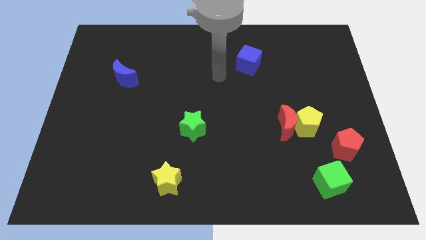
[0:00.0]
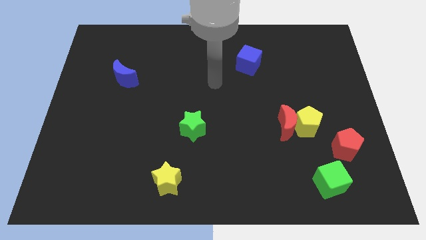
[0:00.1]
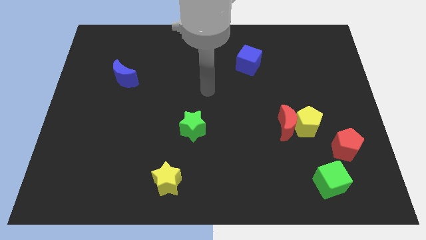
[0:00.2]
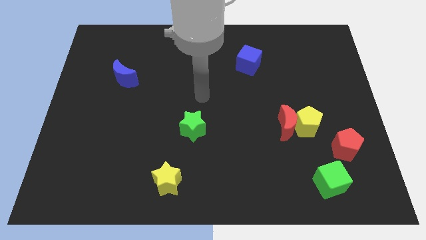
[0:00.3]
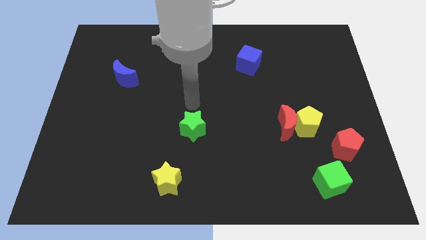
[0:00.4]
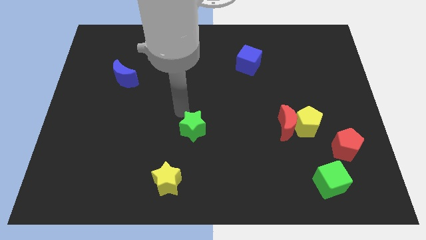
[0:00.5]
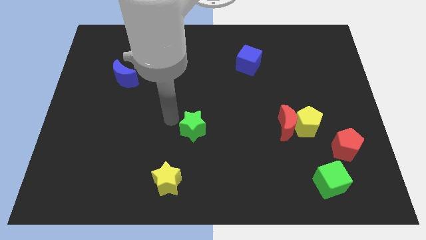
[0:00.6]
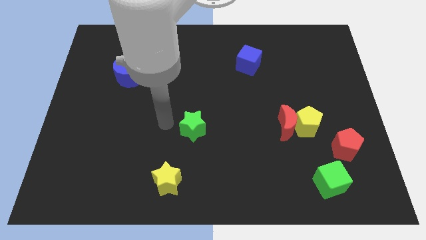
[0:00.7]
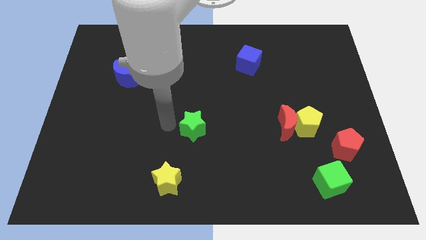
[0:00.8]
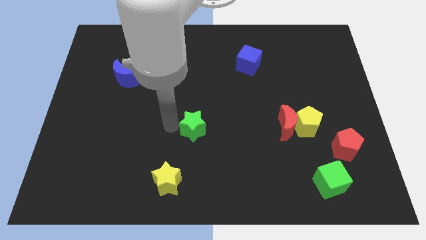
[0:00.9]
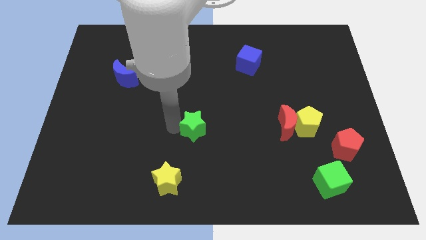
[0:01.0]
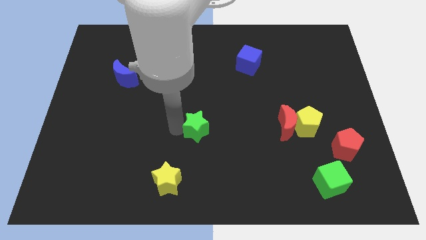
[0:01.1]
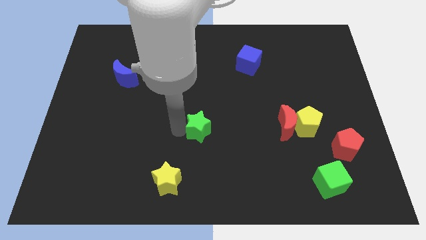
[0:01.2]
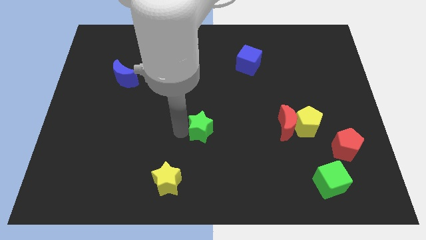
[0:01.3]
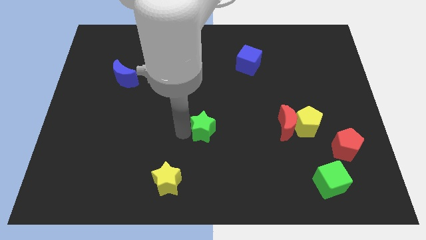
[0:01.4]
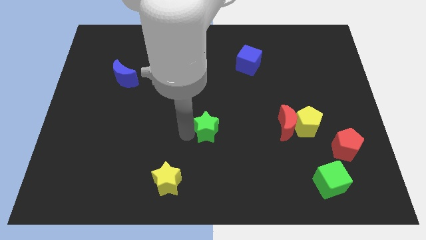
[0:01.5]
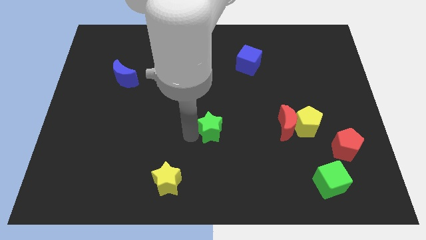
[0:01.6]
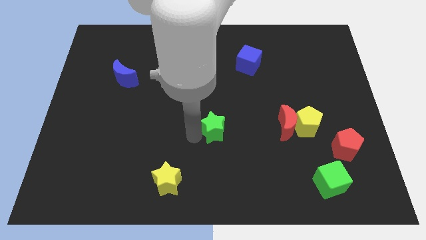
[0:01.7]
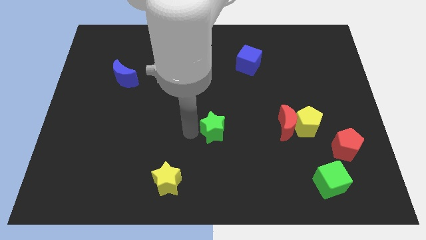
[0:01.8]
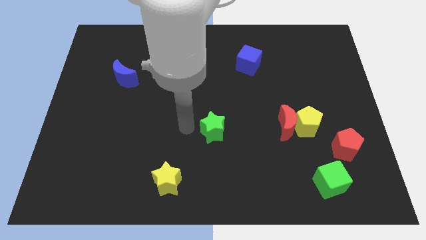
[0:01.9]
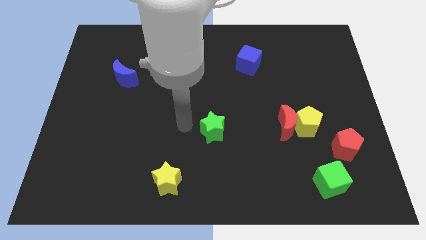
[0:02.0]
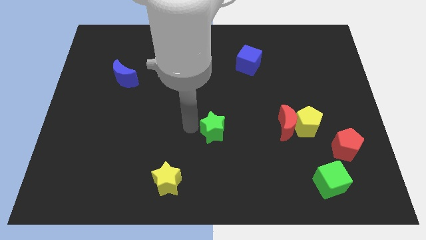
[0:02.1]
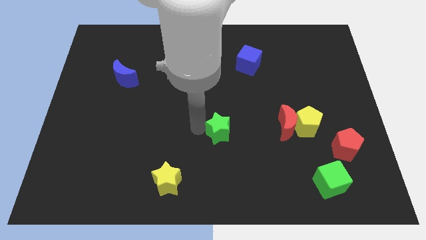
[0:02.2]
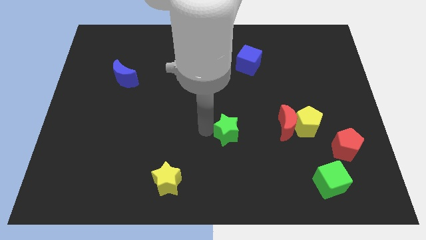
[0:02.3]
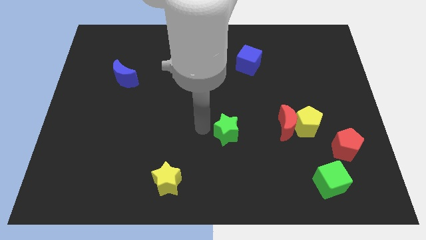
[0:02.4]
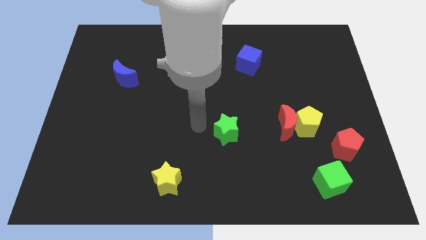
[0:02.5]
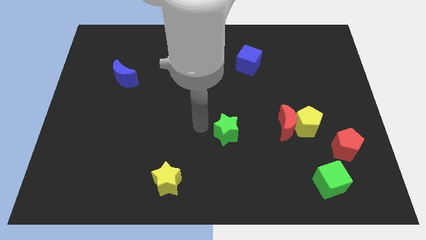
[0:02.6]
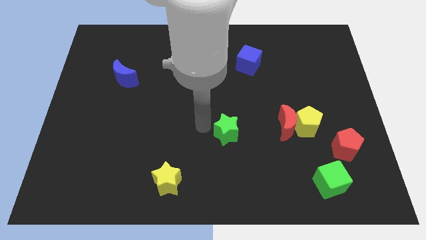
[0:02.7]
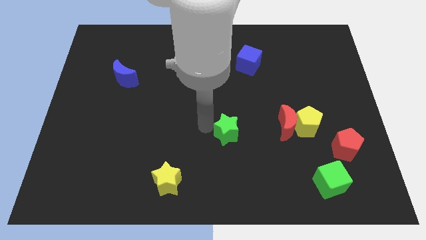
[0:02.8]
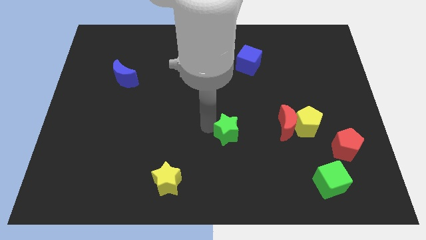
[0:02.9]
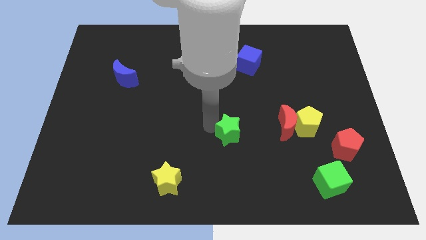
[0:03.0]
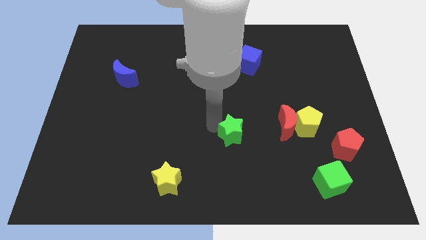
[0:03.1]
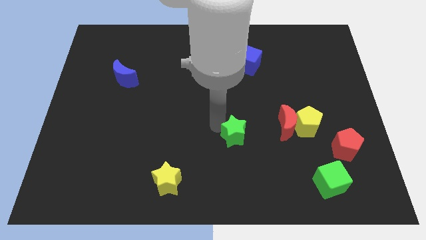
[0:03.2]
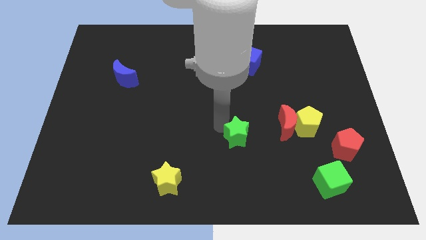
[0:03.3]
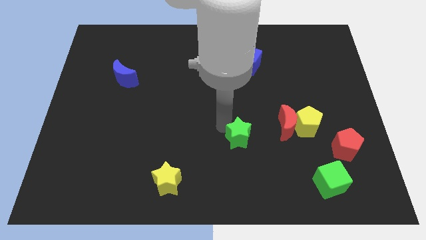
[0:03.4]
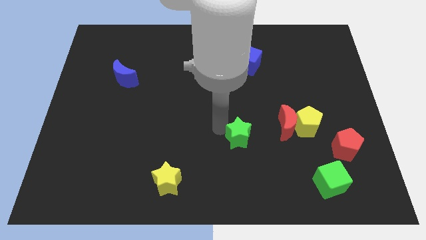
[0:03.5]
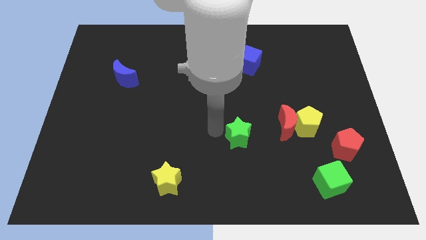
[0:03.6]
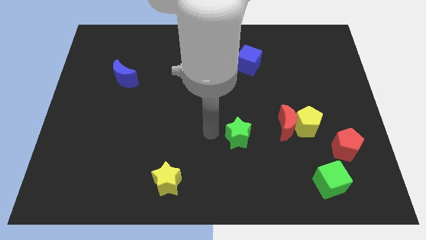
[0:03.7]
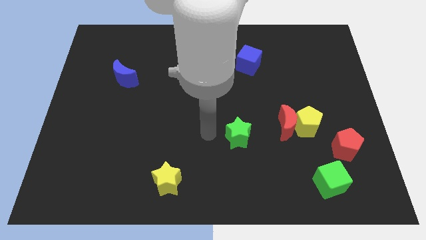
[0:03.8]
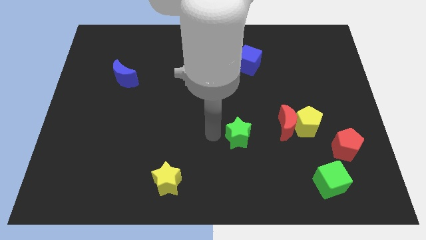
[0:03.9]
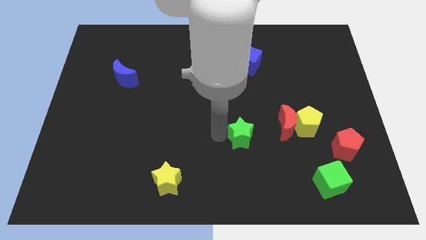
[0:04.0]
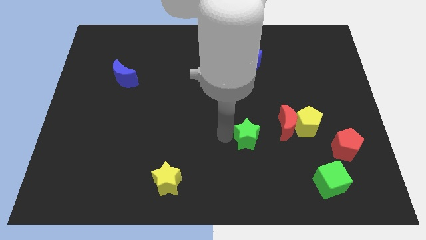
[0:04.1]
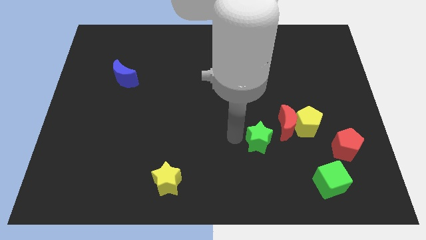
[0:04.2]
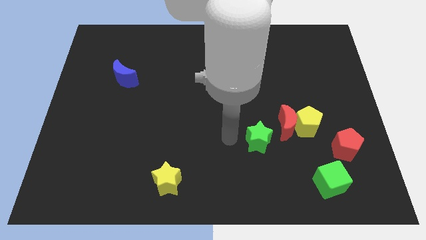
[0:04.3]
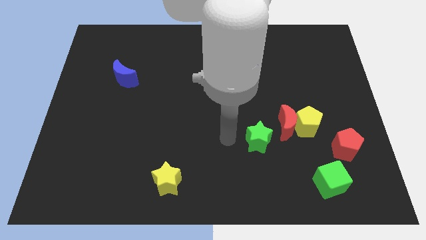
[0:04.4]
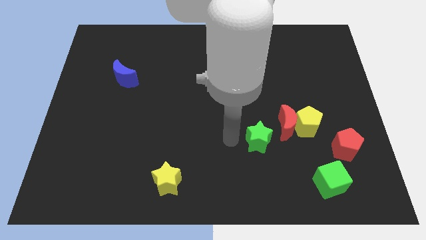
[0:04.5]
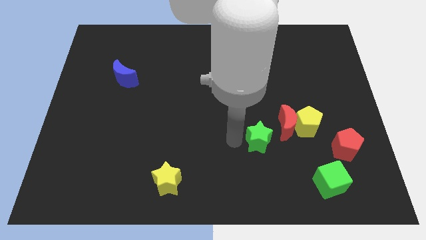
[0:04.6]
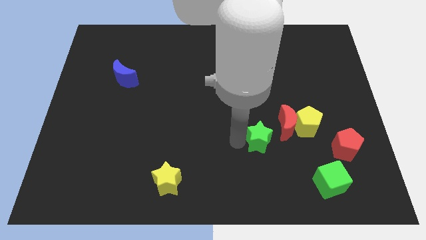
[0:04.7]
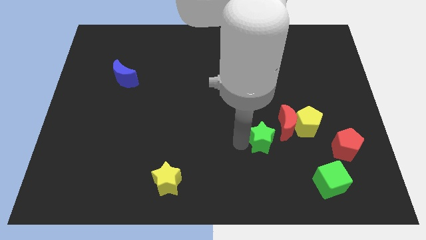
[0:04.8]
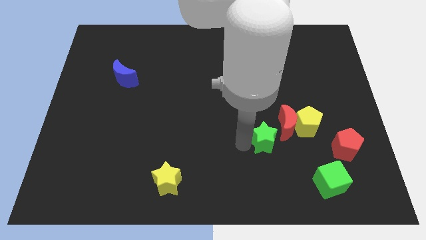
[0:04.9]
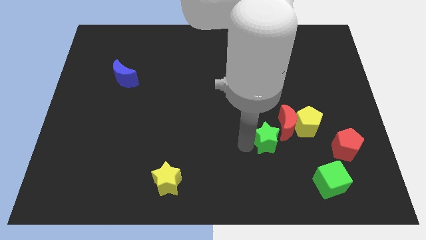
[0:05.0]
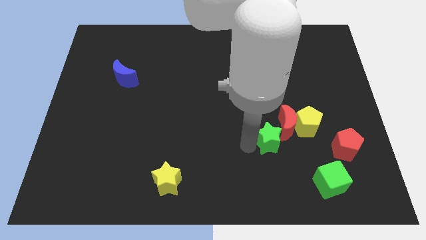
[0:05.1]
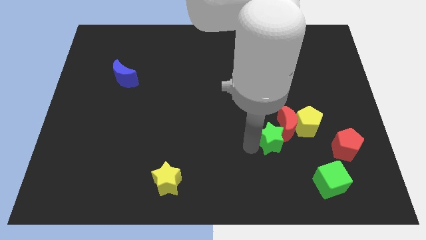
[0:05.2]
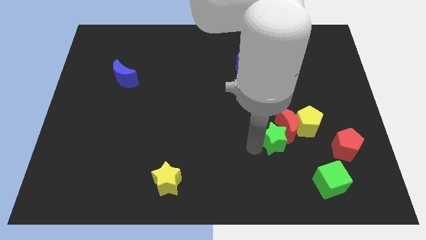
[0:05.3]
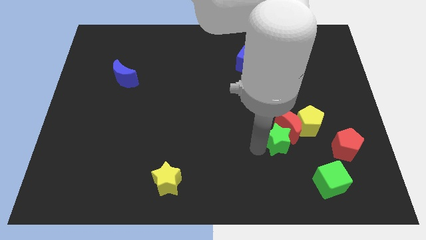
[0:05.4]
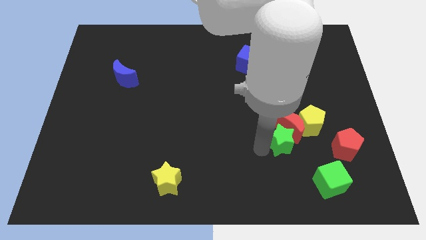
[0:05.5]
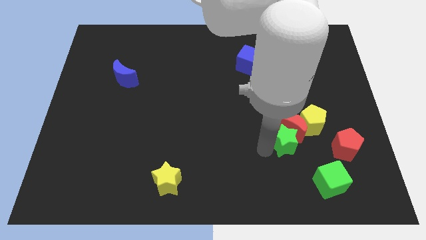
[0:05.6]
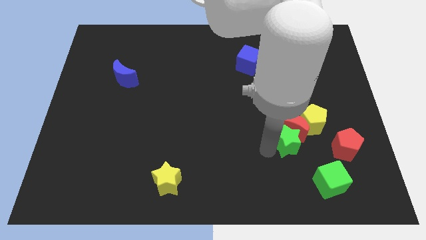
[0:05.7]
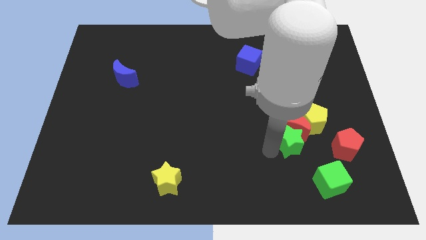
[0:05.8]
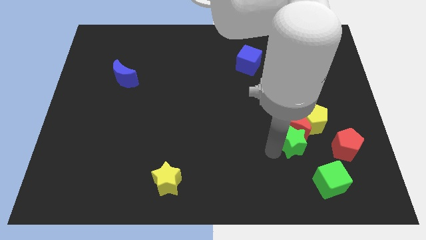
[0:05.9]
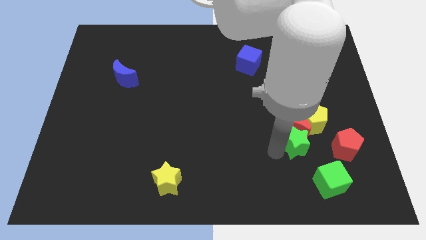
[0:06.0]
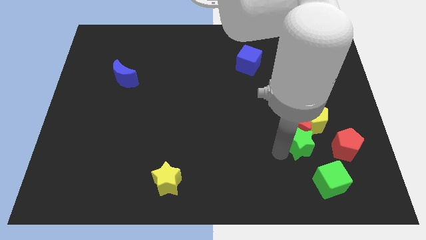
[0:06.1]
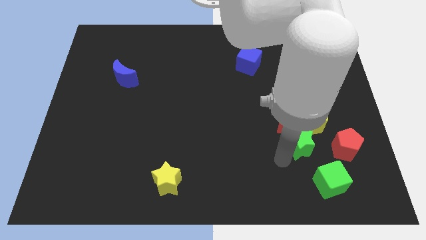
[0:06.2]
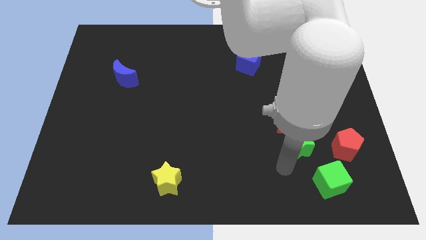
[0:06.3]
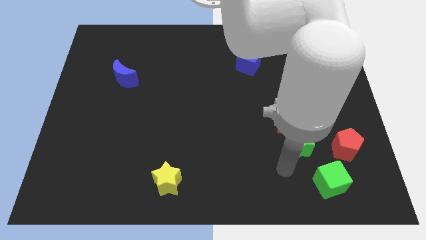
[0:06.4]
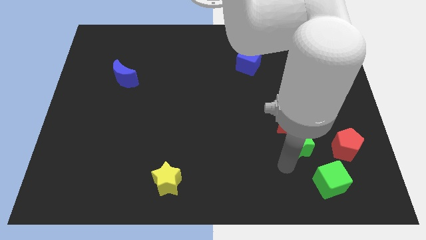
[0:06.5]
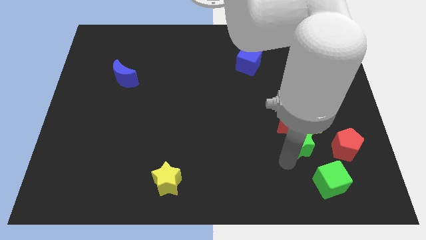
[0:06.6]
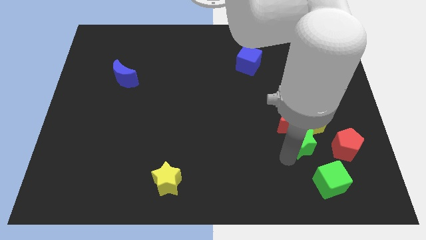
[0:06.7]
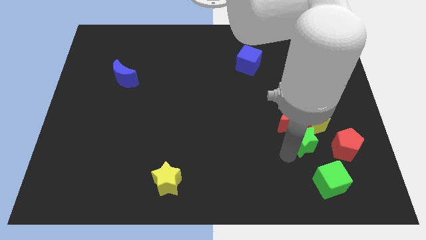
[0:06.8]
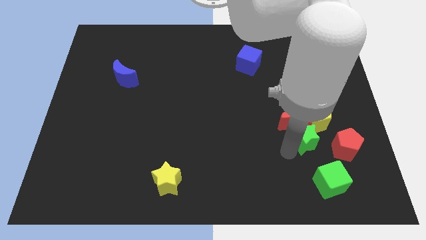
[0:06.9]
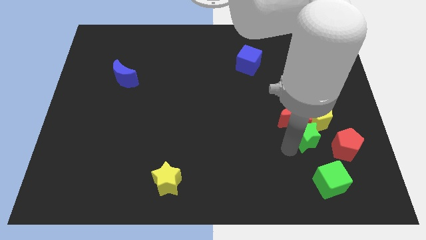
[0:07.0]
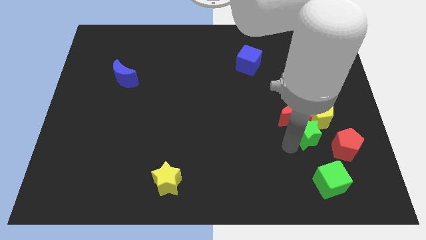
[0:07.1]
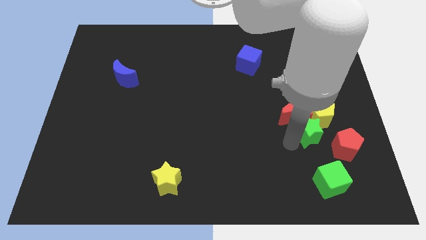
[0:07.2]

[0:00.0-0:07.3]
move the green star to the yellow pentagon
